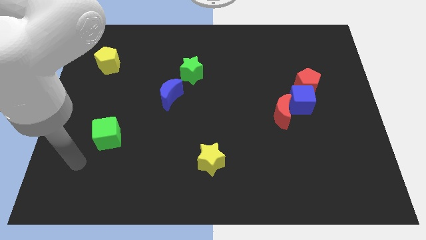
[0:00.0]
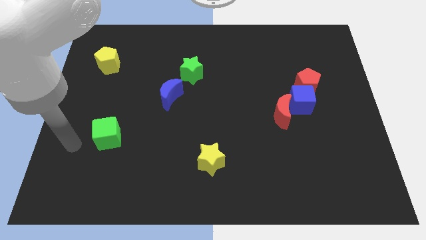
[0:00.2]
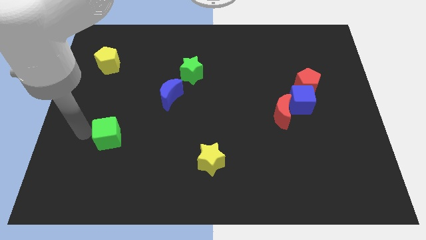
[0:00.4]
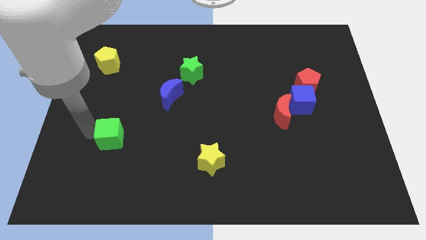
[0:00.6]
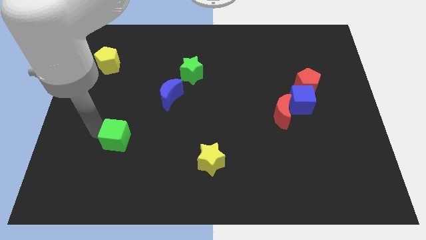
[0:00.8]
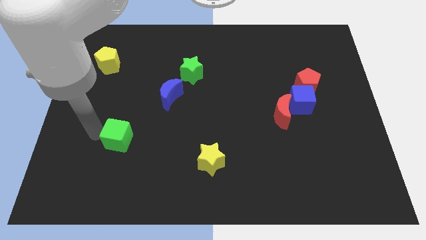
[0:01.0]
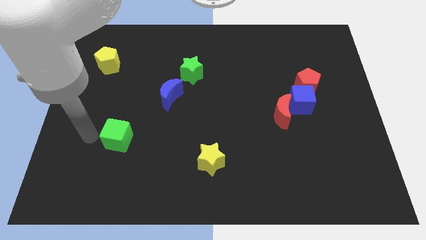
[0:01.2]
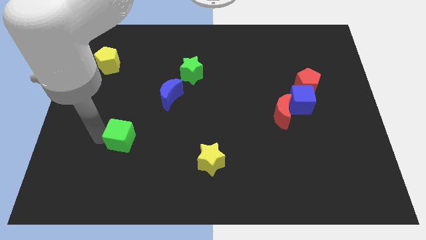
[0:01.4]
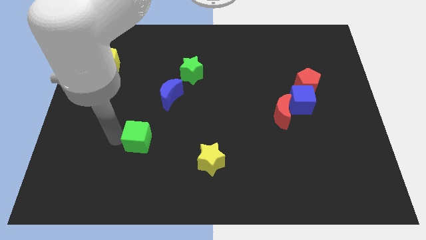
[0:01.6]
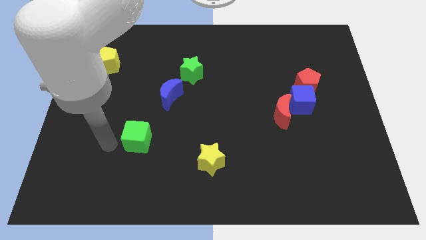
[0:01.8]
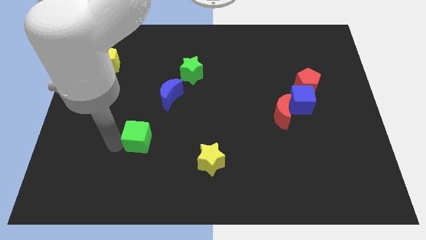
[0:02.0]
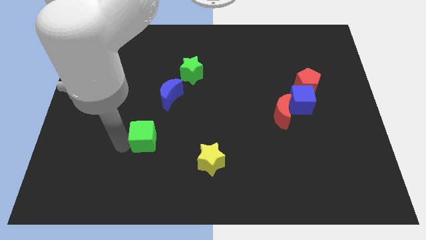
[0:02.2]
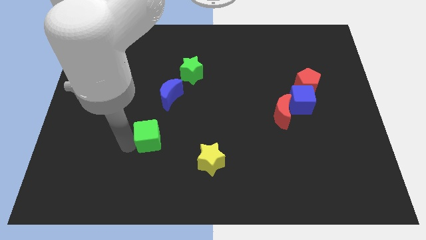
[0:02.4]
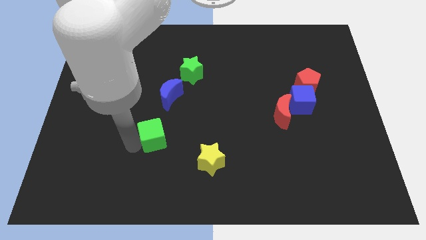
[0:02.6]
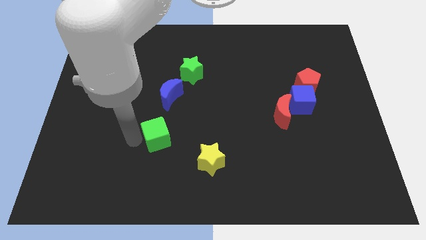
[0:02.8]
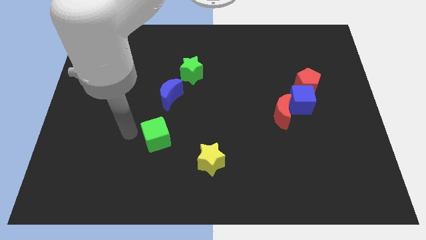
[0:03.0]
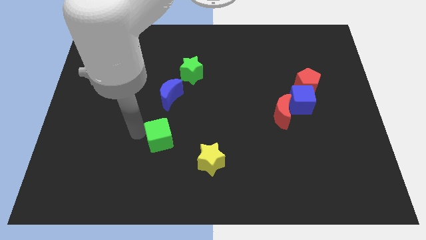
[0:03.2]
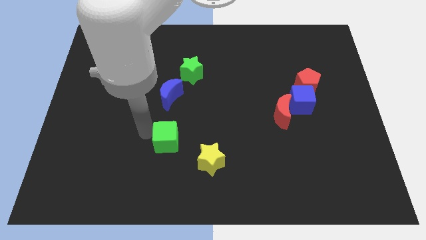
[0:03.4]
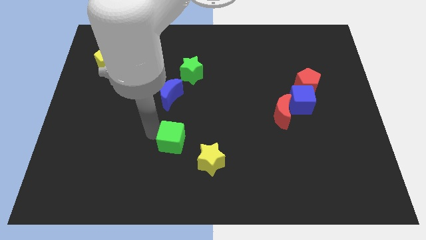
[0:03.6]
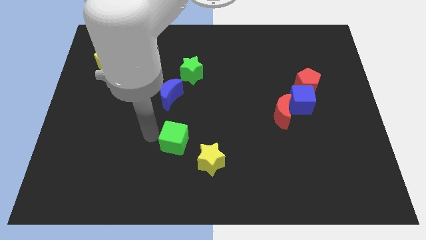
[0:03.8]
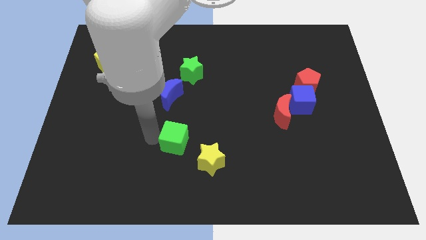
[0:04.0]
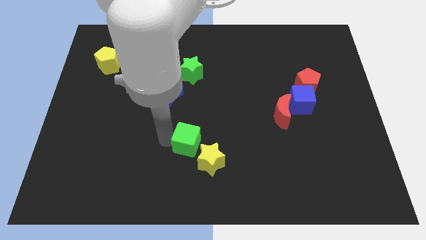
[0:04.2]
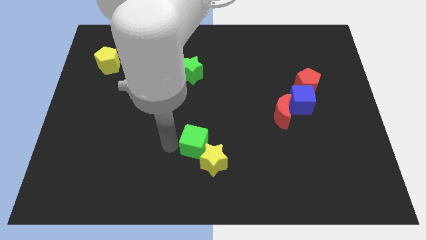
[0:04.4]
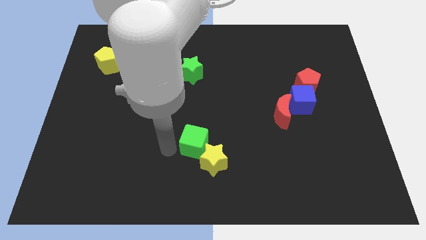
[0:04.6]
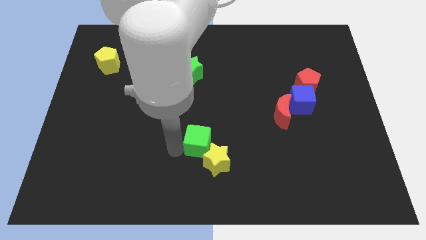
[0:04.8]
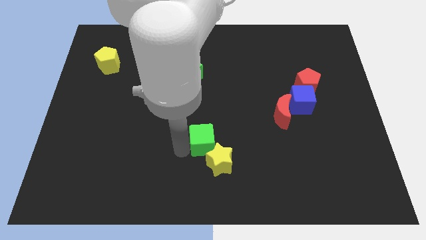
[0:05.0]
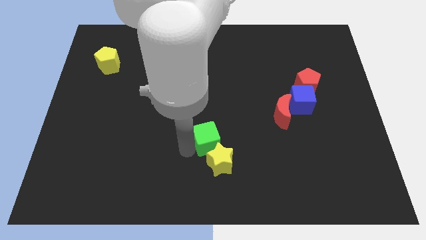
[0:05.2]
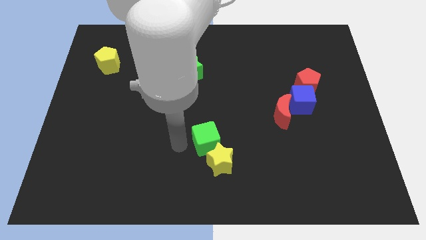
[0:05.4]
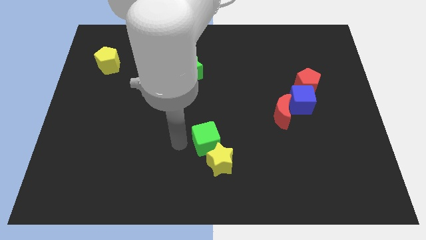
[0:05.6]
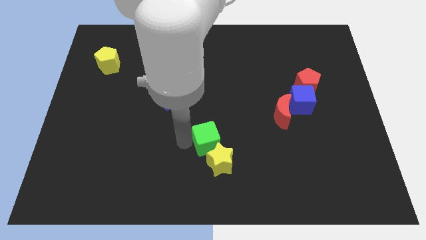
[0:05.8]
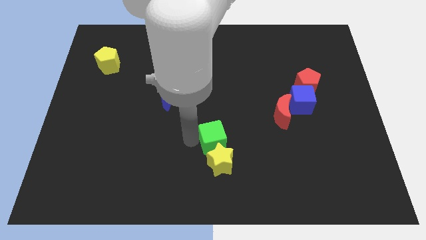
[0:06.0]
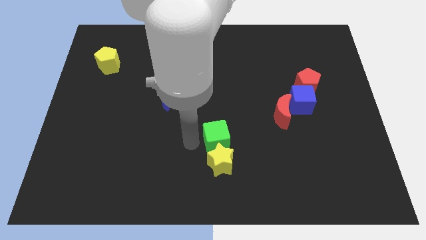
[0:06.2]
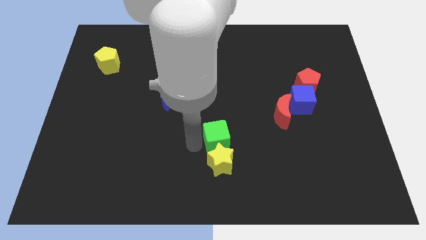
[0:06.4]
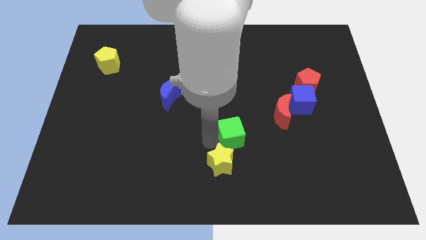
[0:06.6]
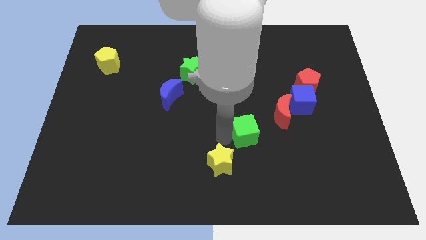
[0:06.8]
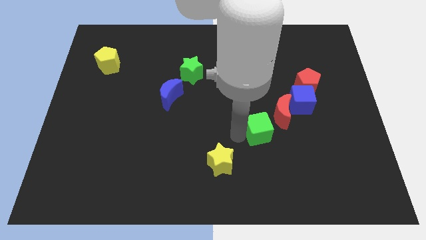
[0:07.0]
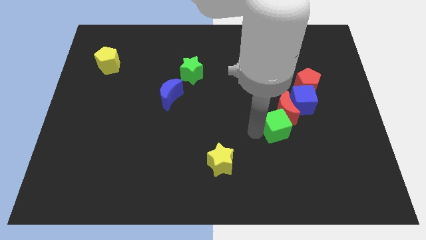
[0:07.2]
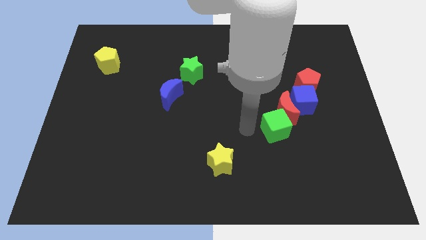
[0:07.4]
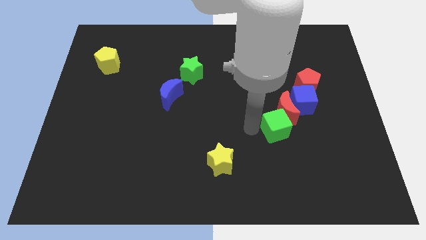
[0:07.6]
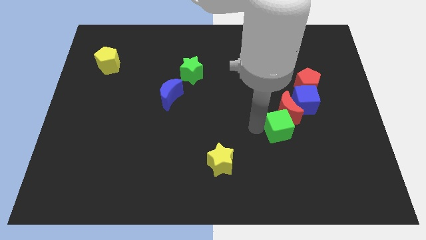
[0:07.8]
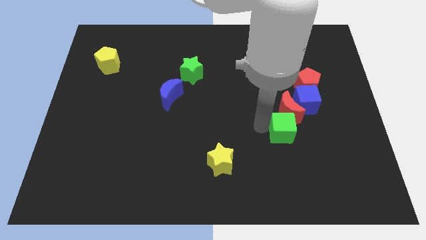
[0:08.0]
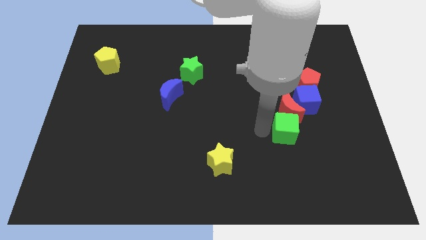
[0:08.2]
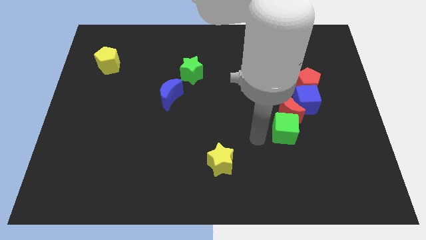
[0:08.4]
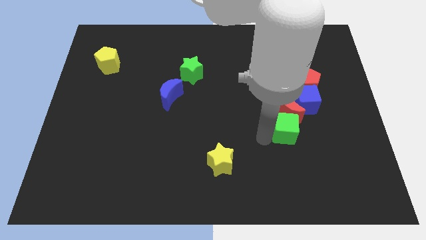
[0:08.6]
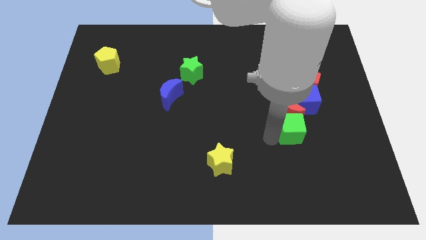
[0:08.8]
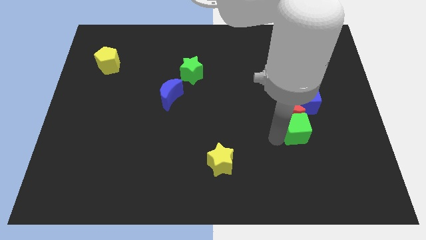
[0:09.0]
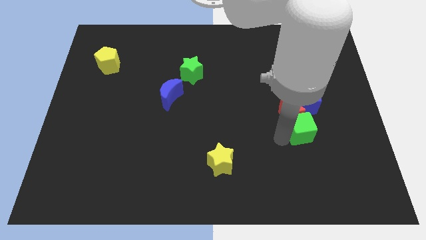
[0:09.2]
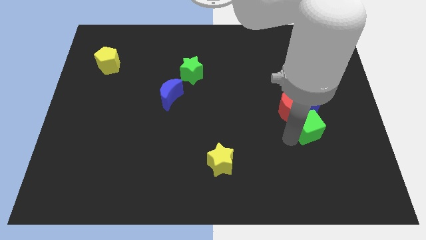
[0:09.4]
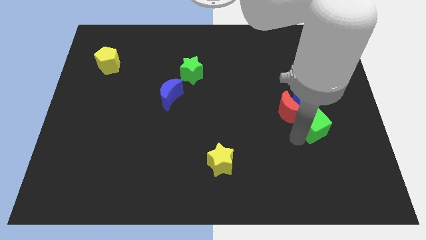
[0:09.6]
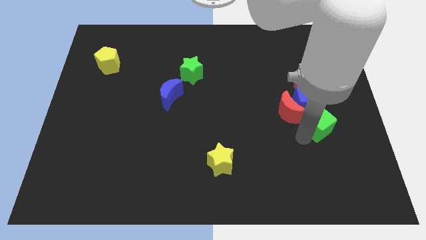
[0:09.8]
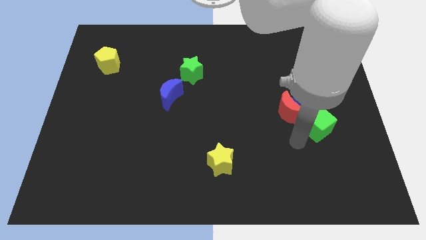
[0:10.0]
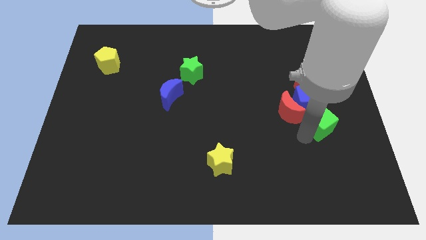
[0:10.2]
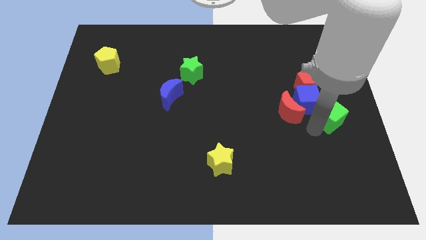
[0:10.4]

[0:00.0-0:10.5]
move the green cube to the center right

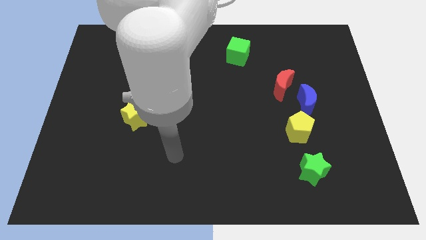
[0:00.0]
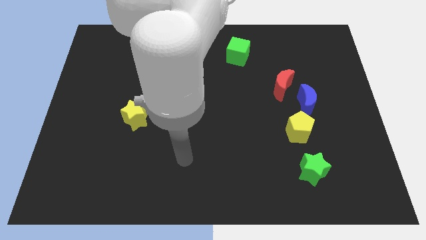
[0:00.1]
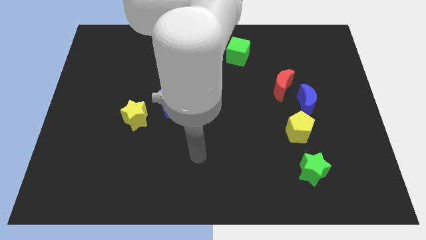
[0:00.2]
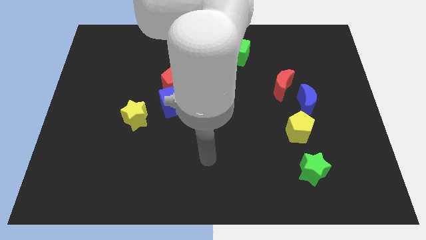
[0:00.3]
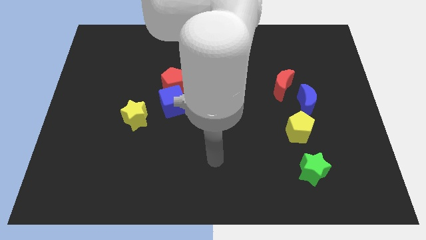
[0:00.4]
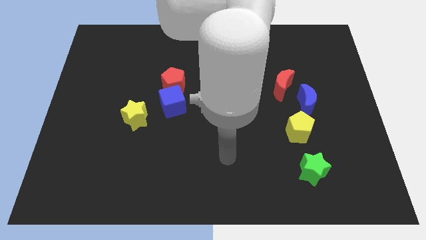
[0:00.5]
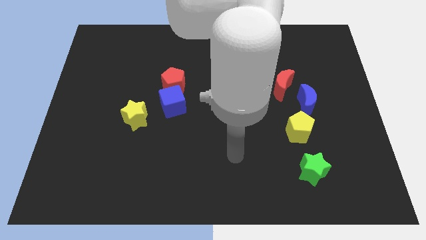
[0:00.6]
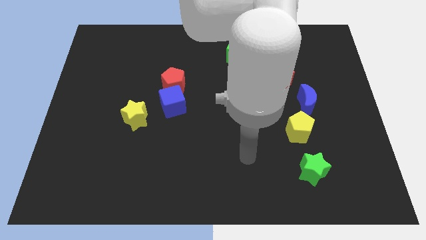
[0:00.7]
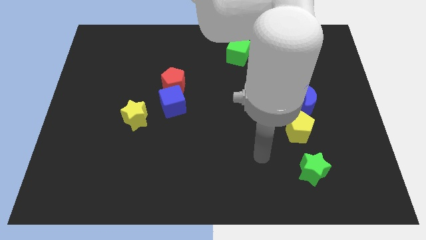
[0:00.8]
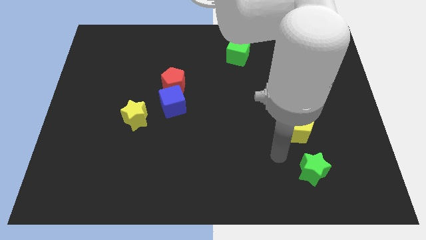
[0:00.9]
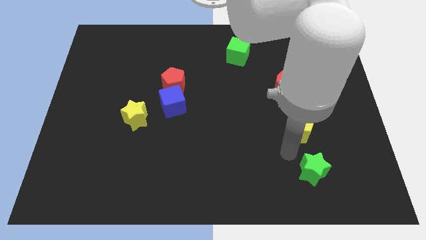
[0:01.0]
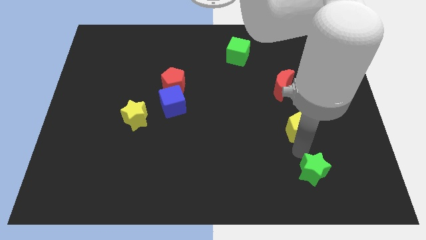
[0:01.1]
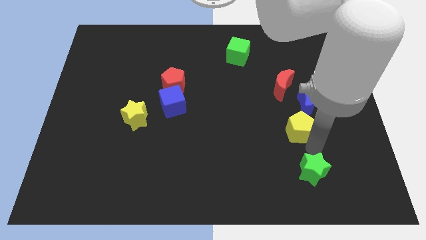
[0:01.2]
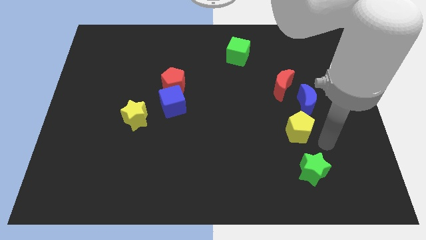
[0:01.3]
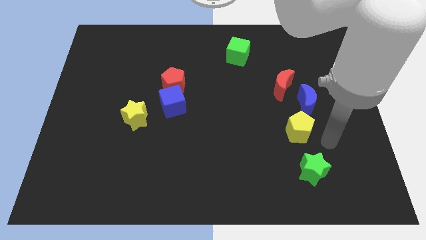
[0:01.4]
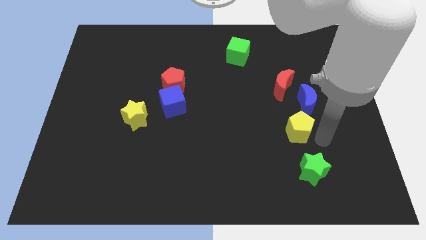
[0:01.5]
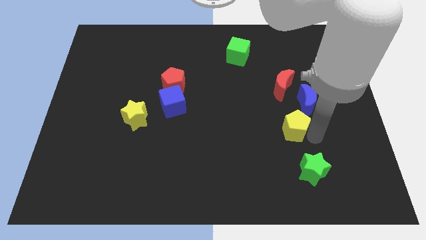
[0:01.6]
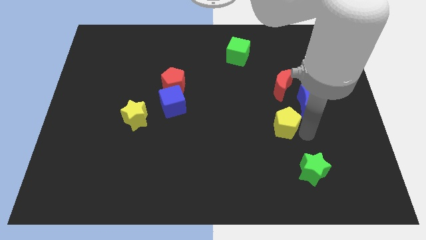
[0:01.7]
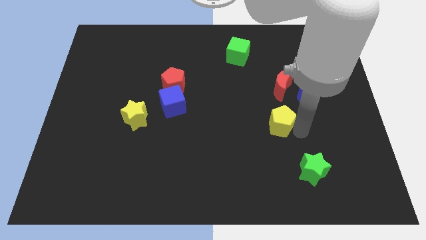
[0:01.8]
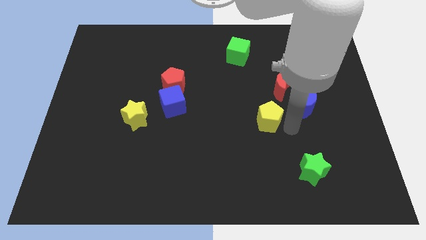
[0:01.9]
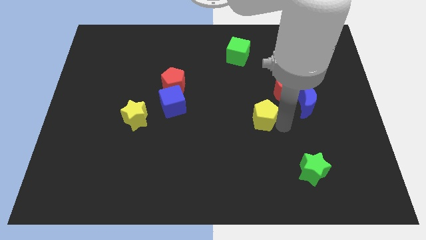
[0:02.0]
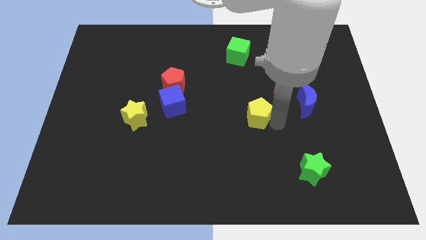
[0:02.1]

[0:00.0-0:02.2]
move the yellow pentagon to the center of the board

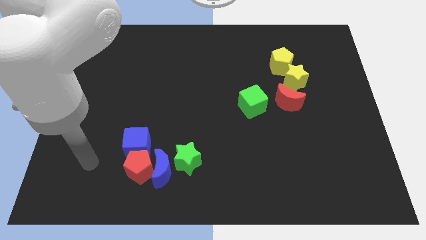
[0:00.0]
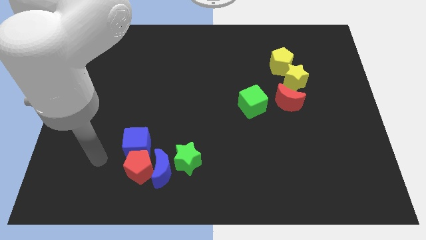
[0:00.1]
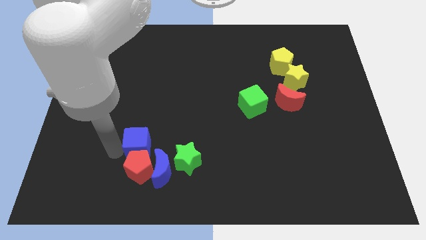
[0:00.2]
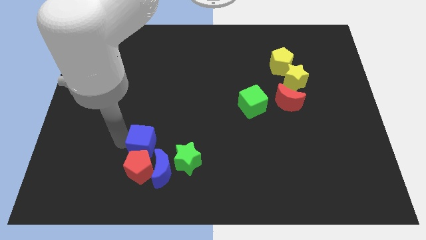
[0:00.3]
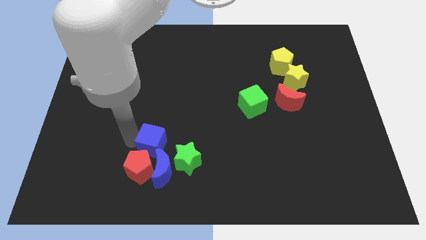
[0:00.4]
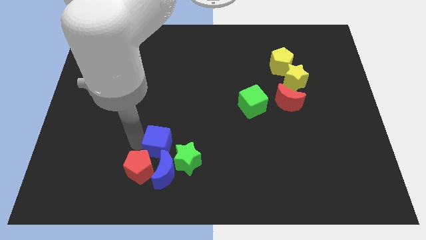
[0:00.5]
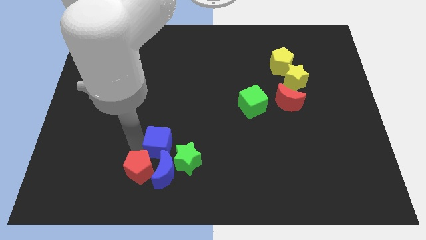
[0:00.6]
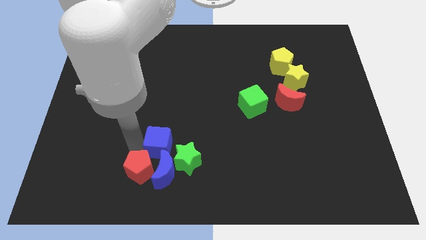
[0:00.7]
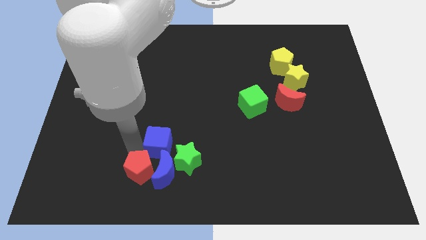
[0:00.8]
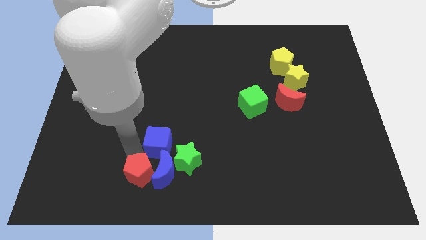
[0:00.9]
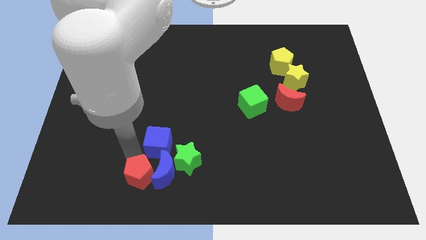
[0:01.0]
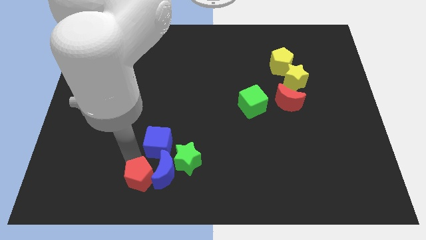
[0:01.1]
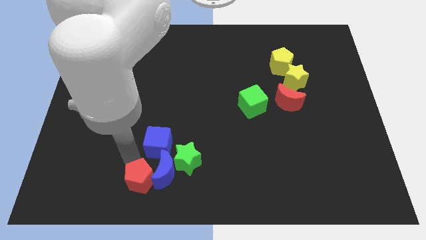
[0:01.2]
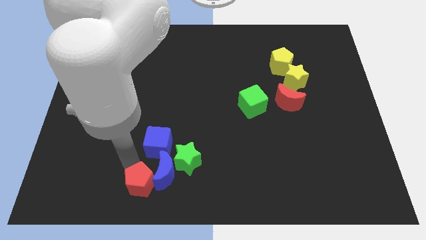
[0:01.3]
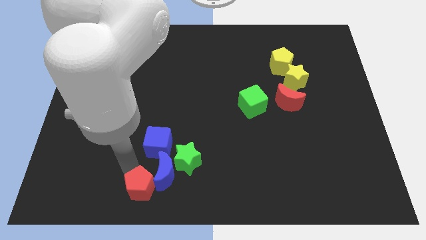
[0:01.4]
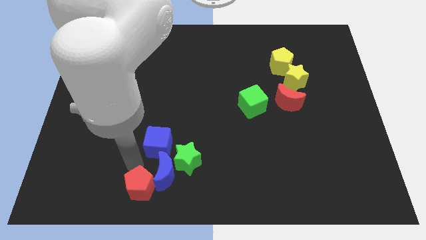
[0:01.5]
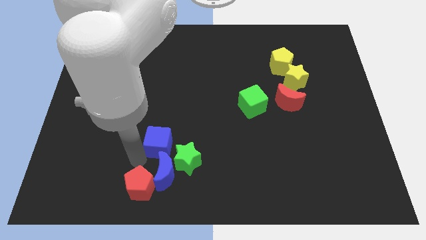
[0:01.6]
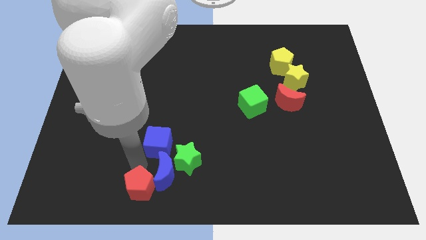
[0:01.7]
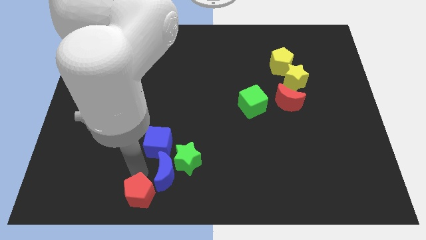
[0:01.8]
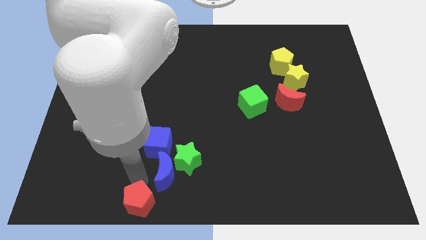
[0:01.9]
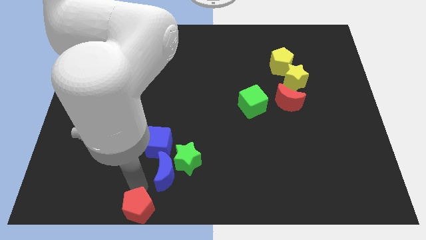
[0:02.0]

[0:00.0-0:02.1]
put the red pentagon to the bottom side
